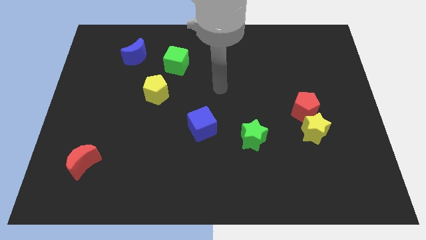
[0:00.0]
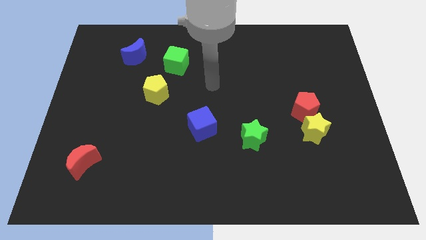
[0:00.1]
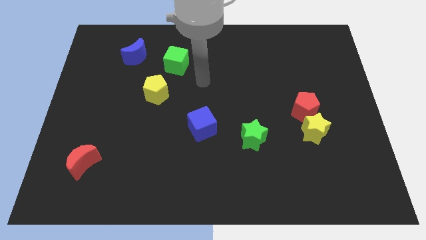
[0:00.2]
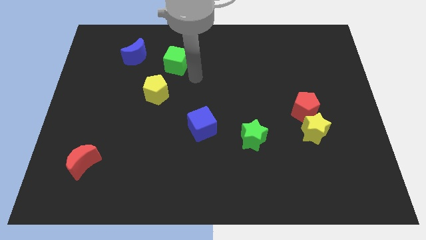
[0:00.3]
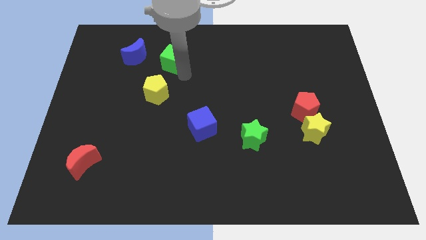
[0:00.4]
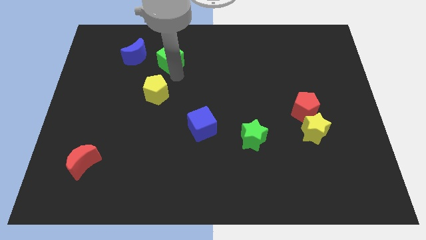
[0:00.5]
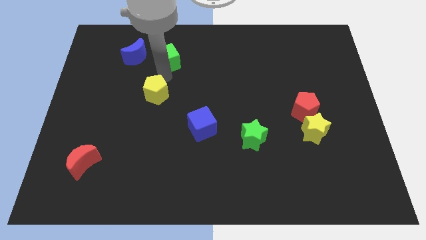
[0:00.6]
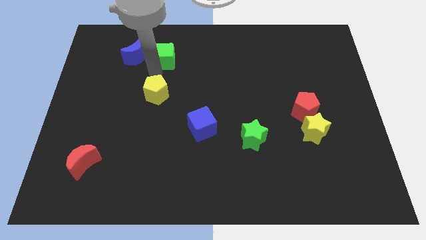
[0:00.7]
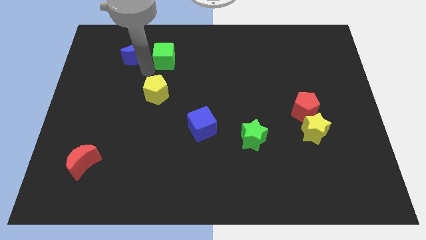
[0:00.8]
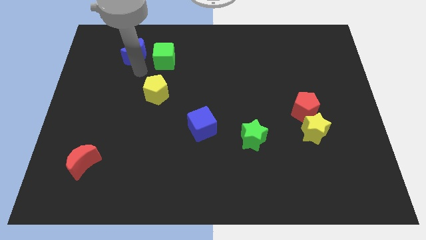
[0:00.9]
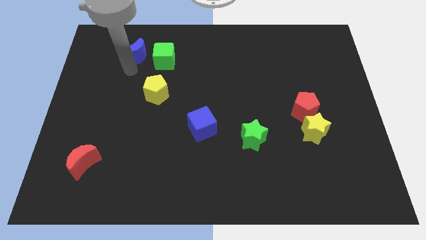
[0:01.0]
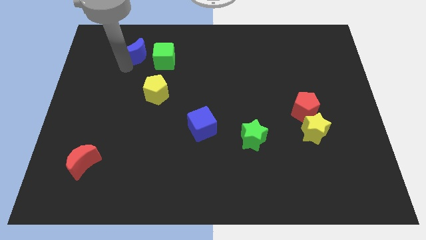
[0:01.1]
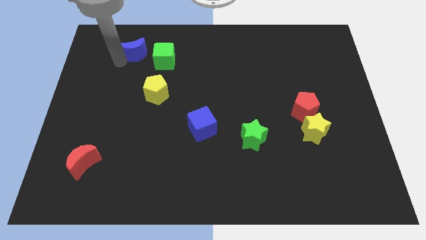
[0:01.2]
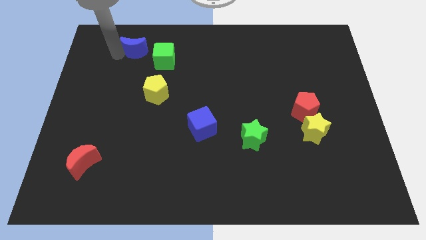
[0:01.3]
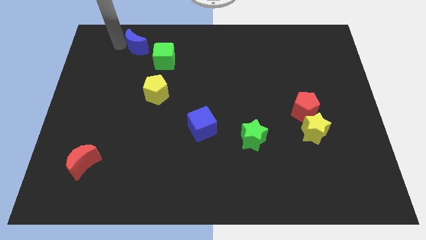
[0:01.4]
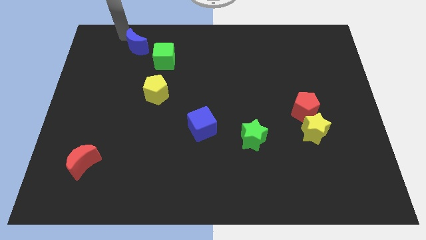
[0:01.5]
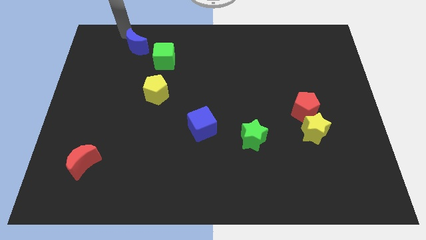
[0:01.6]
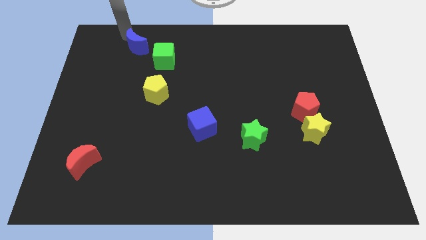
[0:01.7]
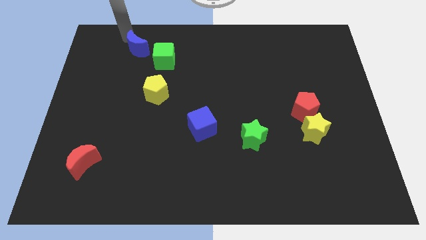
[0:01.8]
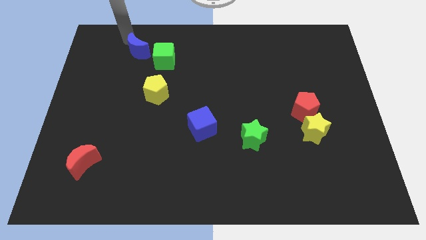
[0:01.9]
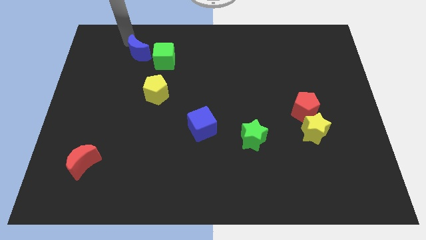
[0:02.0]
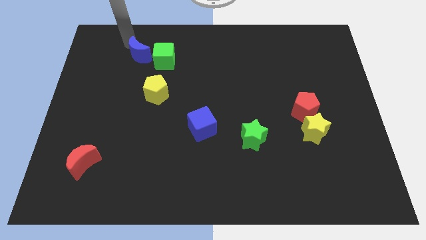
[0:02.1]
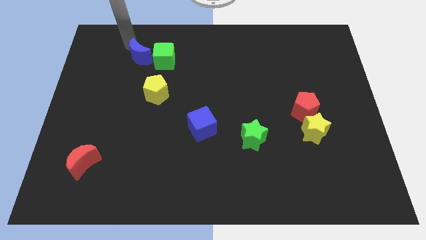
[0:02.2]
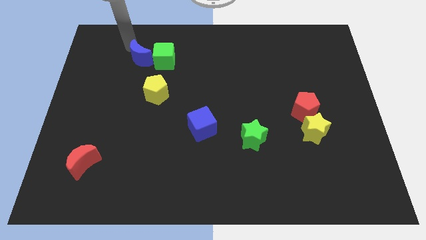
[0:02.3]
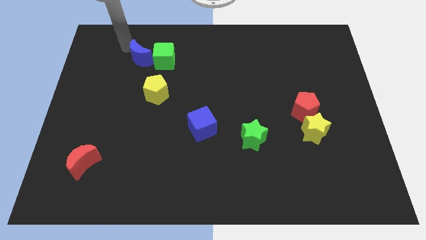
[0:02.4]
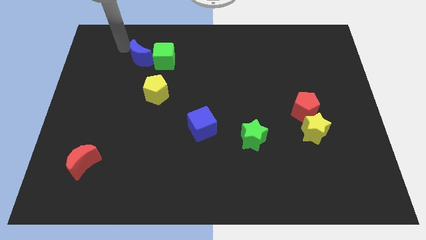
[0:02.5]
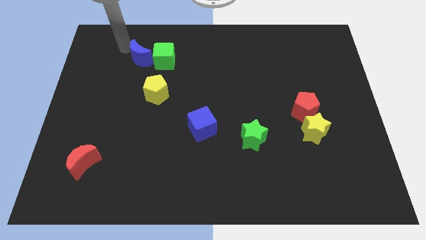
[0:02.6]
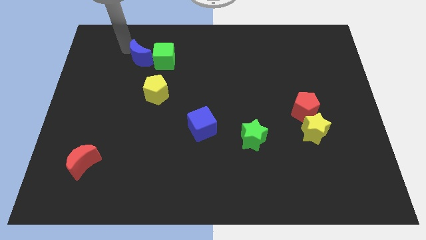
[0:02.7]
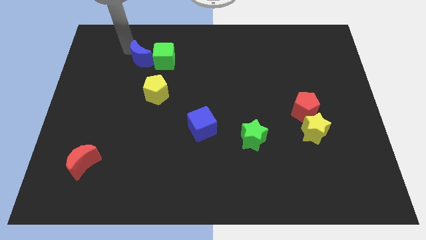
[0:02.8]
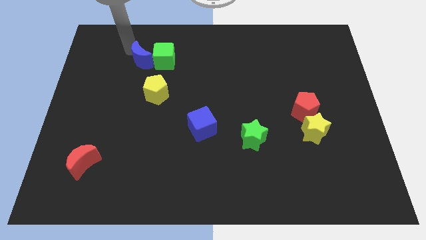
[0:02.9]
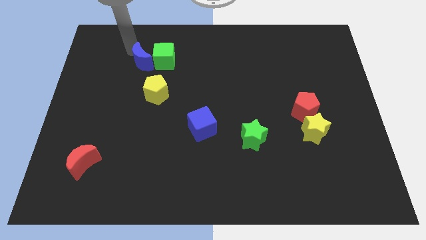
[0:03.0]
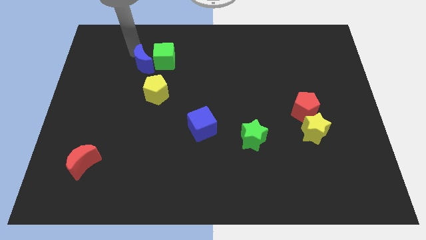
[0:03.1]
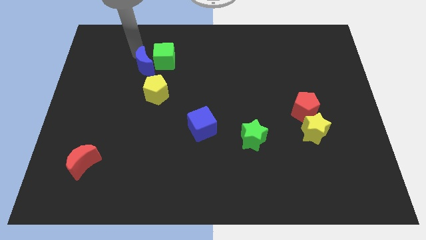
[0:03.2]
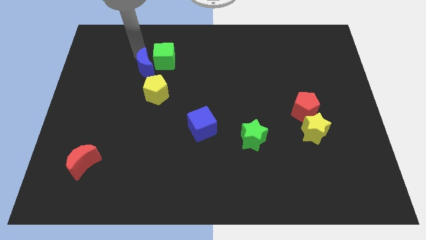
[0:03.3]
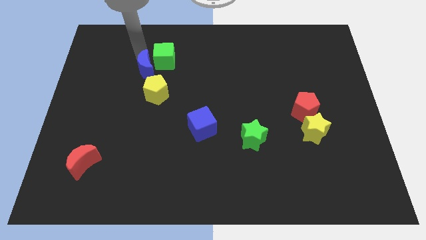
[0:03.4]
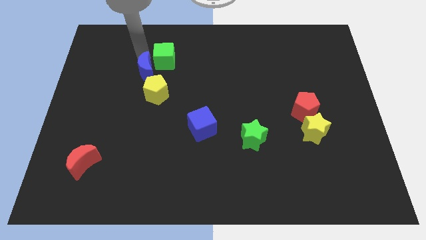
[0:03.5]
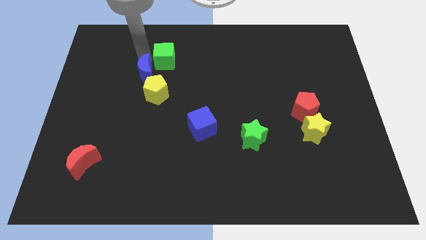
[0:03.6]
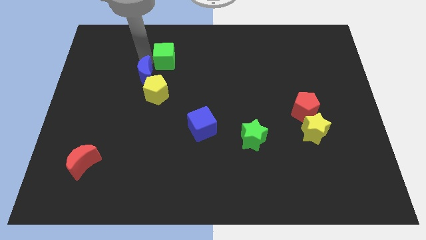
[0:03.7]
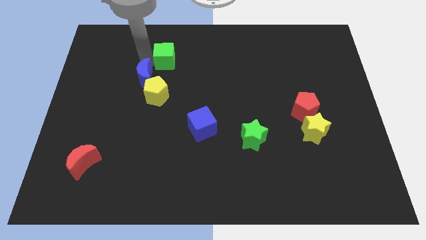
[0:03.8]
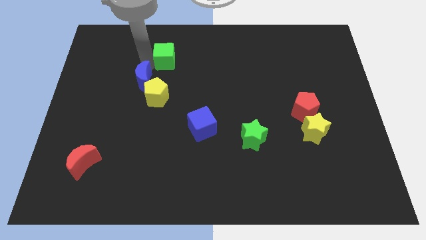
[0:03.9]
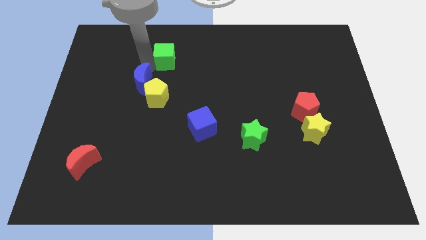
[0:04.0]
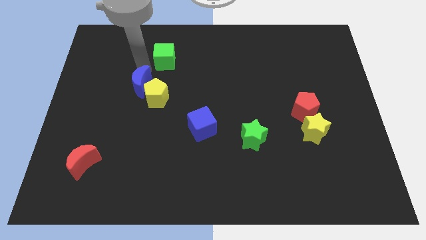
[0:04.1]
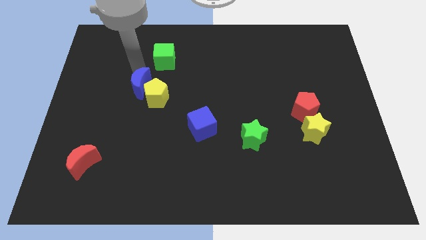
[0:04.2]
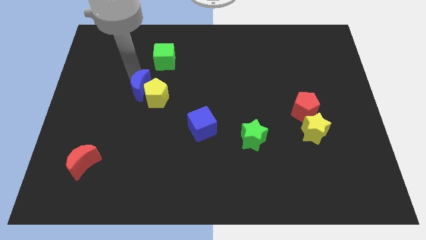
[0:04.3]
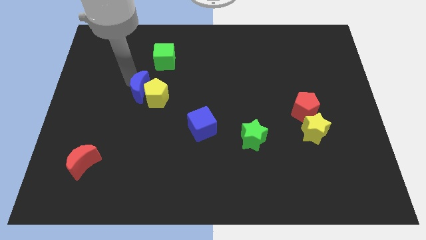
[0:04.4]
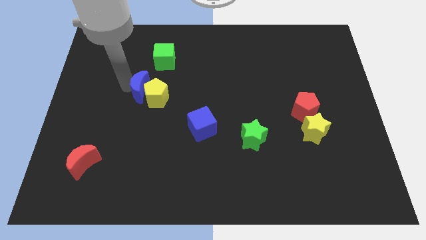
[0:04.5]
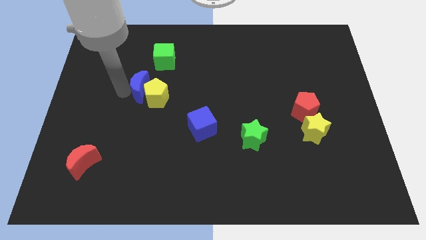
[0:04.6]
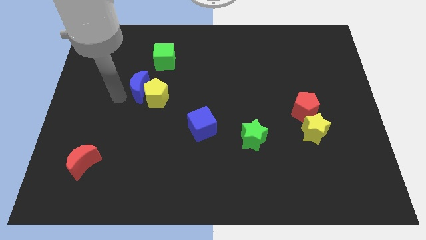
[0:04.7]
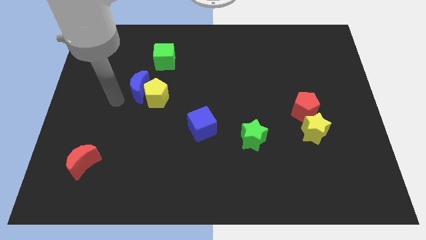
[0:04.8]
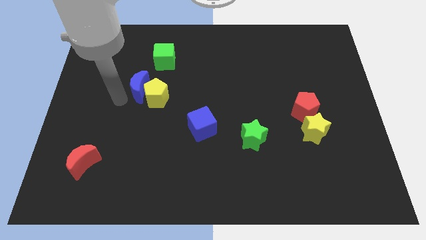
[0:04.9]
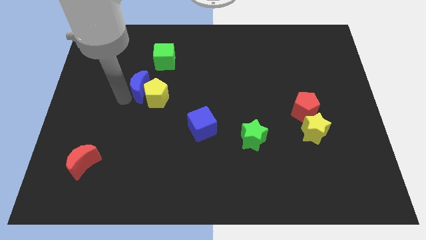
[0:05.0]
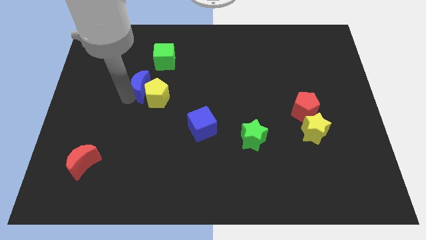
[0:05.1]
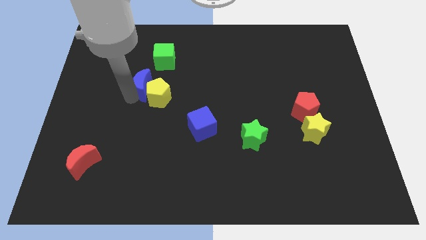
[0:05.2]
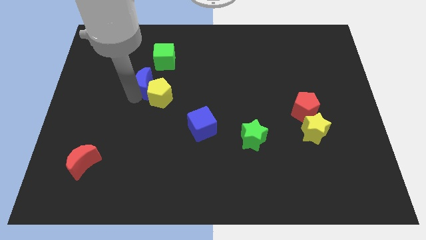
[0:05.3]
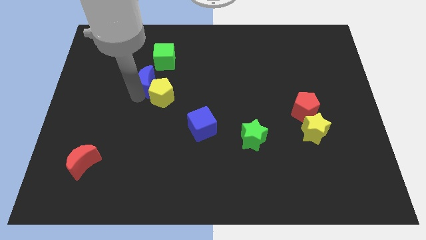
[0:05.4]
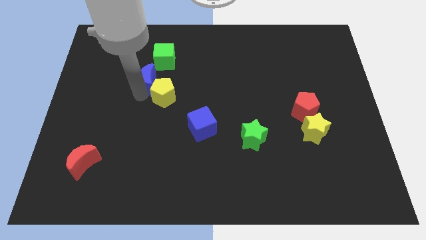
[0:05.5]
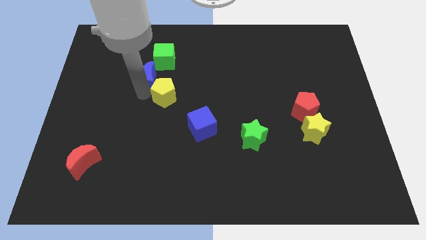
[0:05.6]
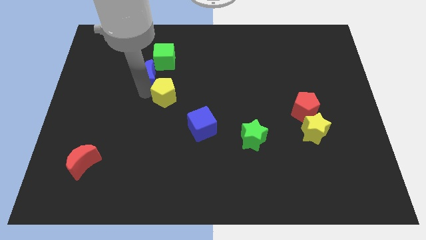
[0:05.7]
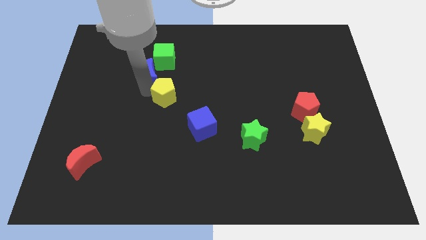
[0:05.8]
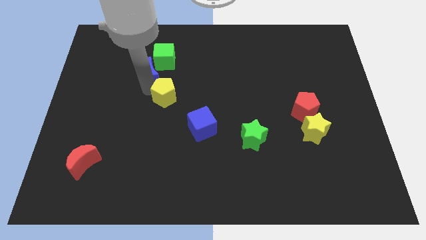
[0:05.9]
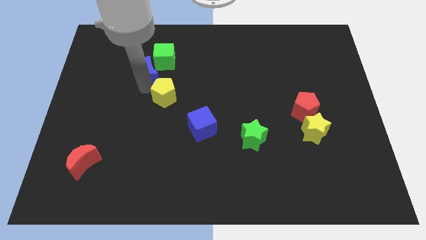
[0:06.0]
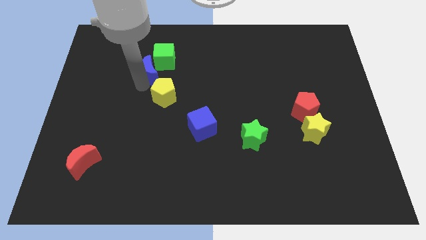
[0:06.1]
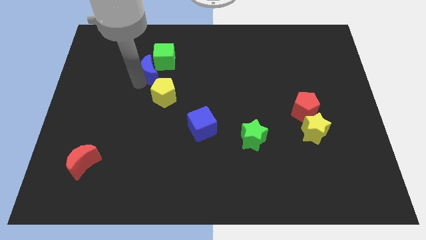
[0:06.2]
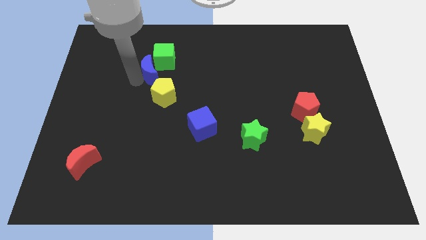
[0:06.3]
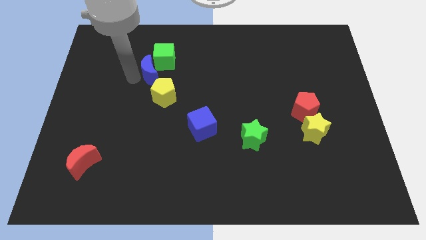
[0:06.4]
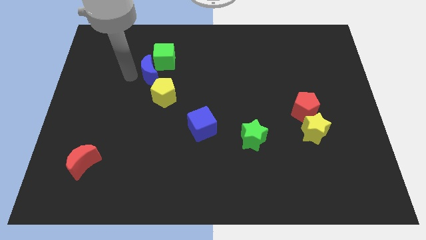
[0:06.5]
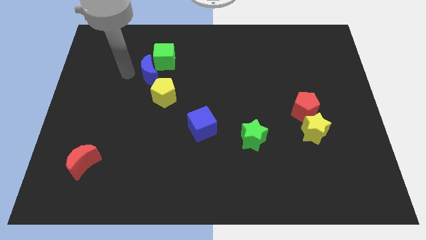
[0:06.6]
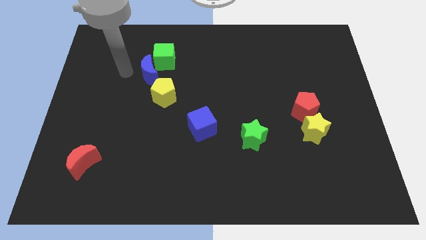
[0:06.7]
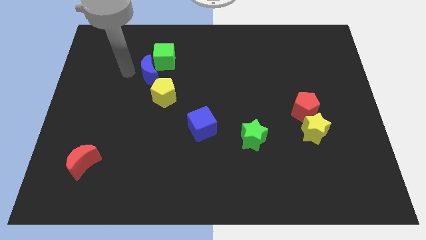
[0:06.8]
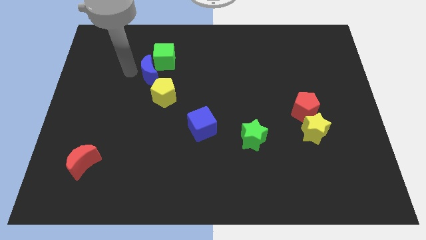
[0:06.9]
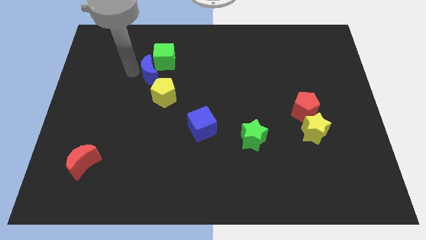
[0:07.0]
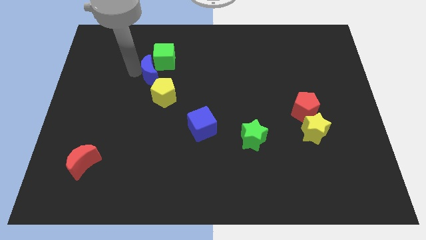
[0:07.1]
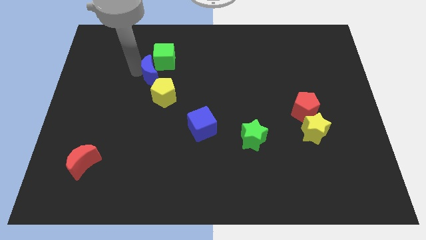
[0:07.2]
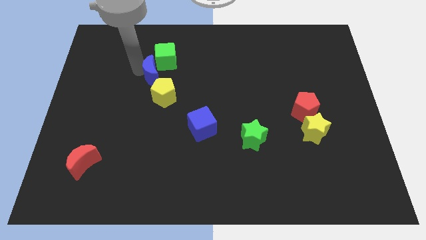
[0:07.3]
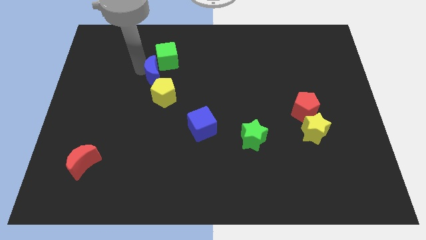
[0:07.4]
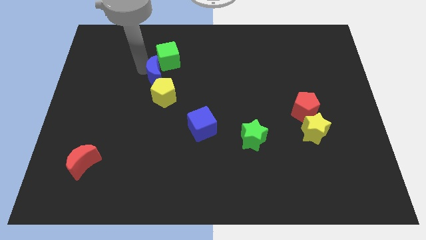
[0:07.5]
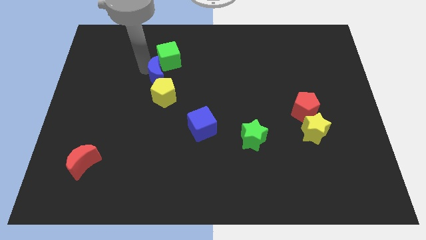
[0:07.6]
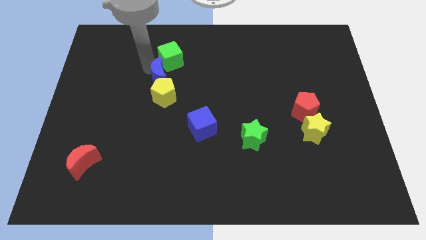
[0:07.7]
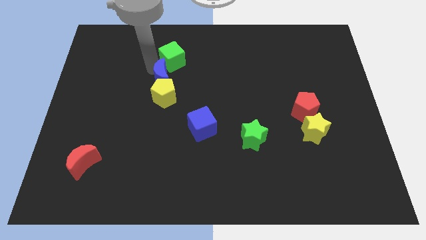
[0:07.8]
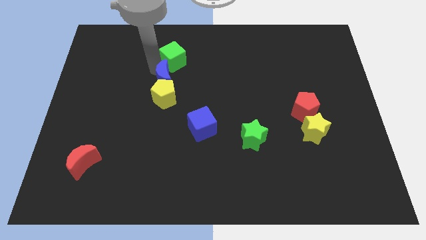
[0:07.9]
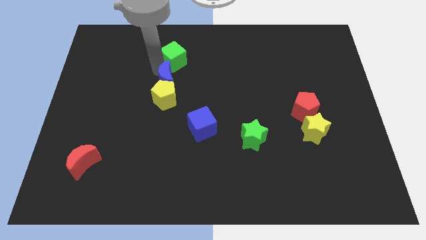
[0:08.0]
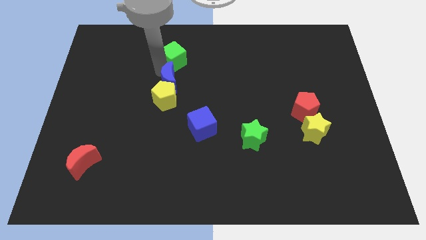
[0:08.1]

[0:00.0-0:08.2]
move the blue moon to the middle
